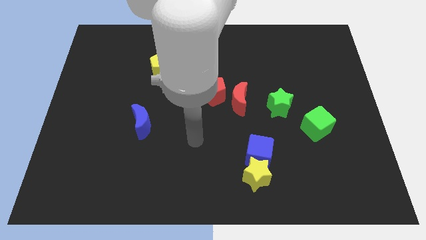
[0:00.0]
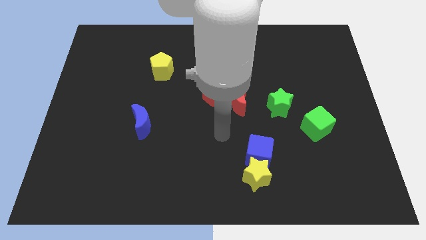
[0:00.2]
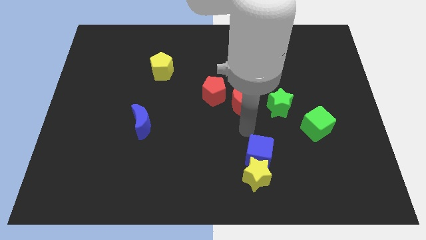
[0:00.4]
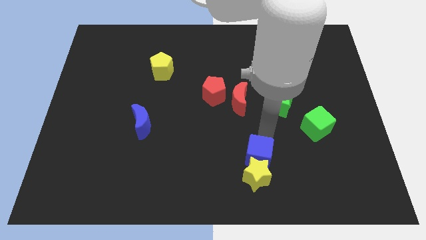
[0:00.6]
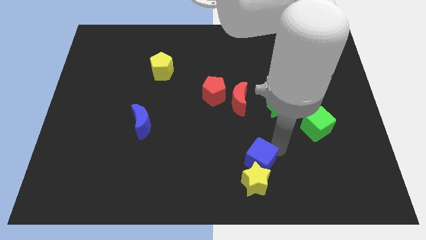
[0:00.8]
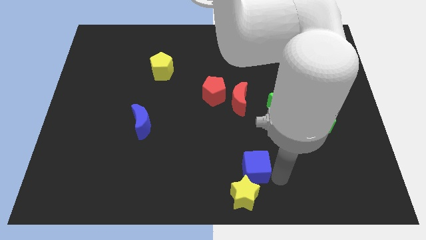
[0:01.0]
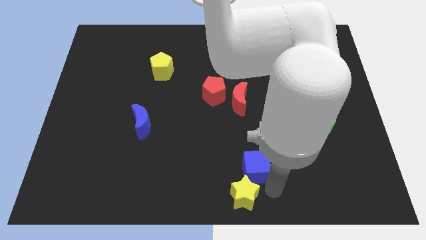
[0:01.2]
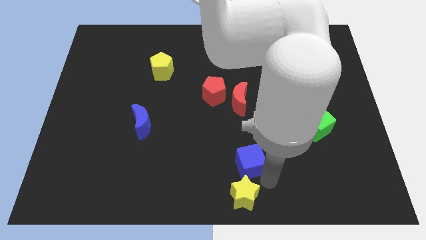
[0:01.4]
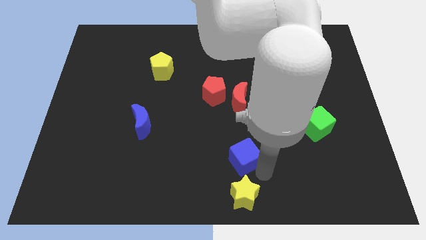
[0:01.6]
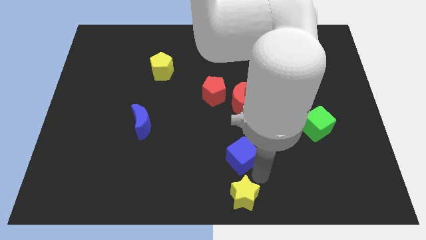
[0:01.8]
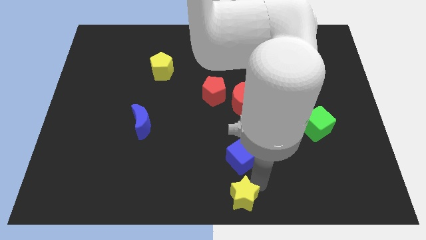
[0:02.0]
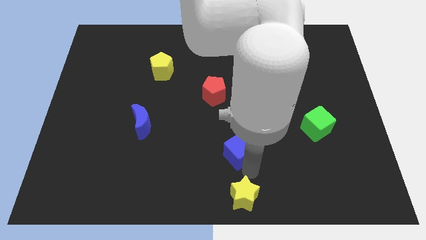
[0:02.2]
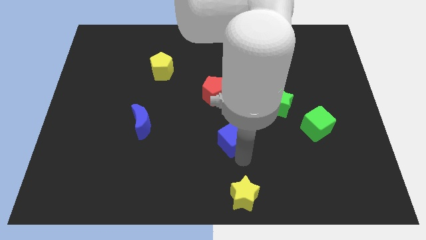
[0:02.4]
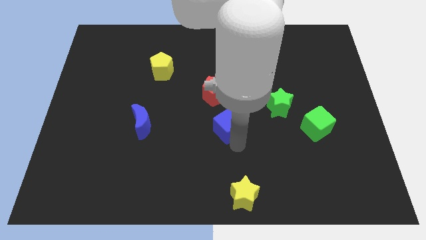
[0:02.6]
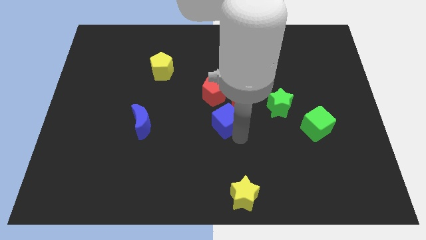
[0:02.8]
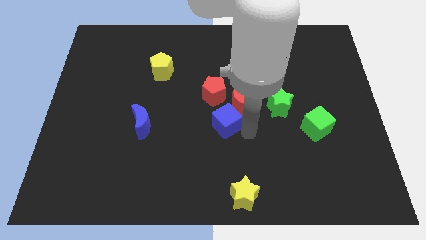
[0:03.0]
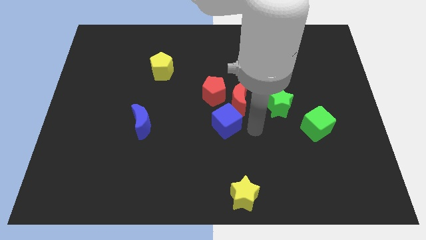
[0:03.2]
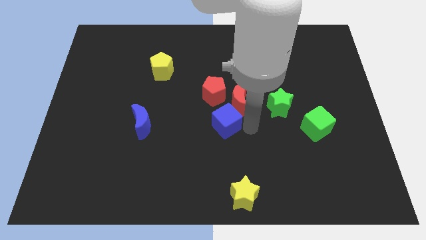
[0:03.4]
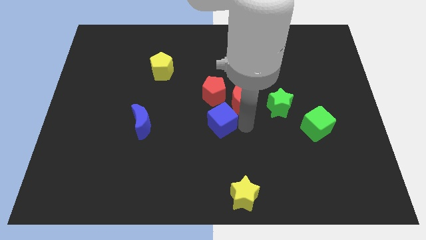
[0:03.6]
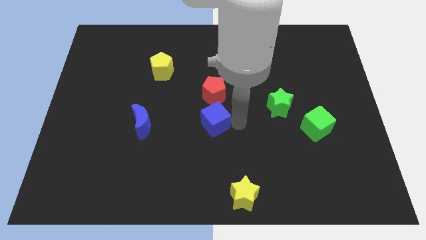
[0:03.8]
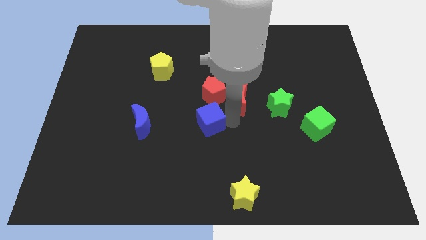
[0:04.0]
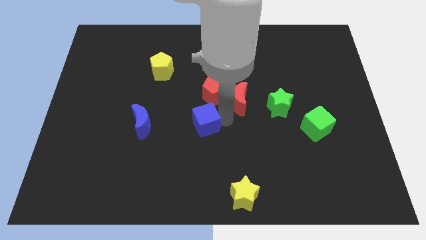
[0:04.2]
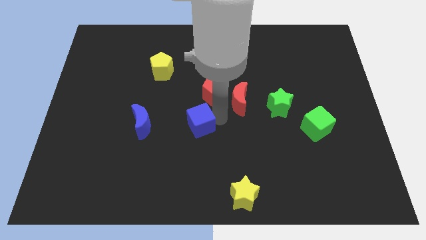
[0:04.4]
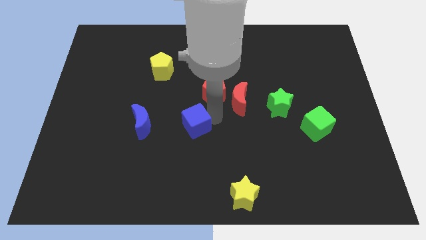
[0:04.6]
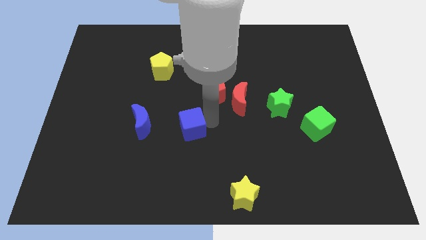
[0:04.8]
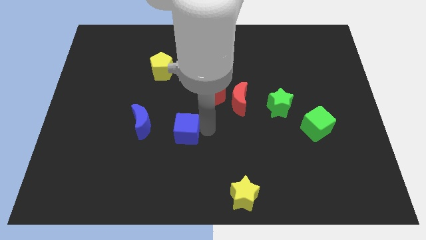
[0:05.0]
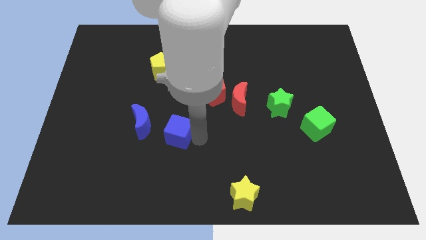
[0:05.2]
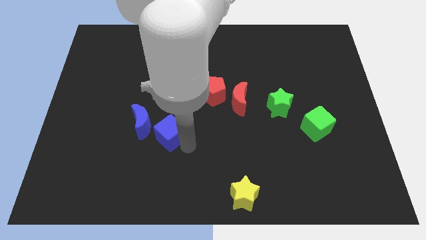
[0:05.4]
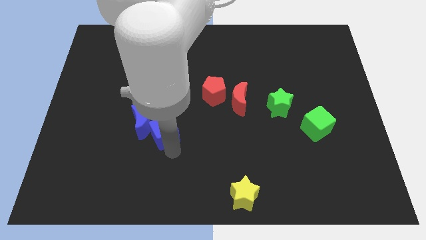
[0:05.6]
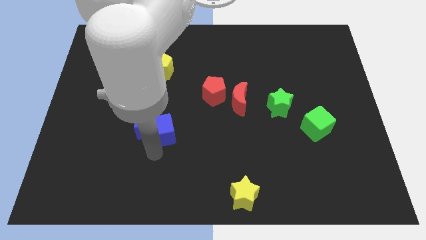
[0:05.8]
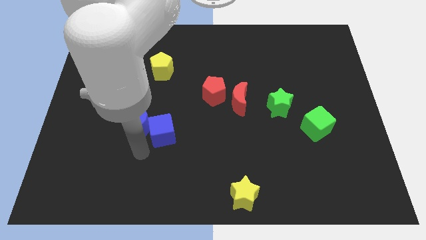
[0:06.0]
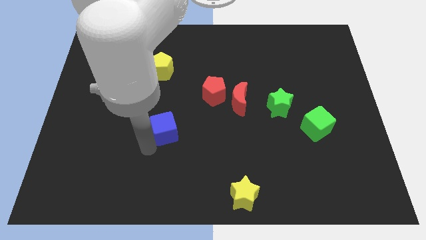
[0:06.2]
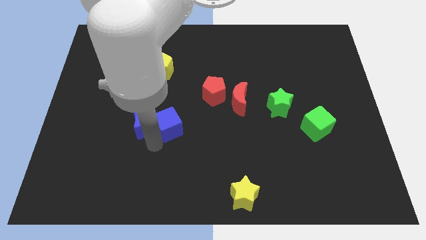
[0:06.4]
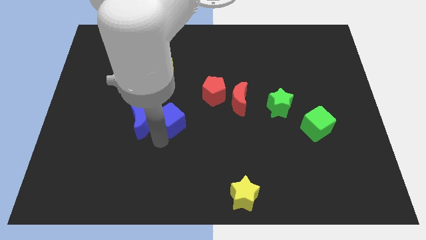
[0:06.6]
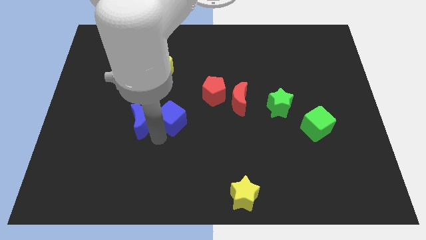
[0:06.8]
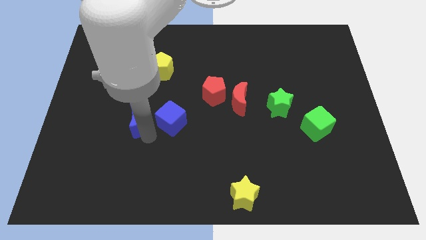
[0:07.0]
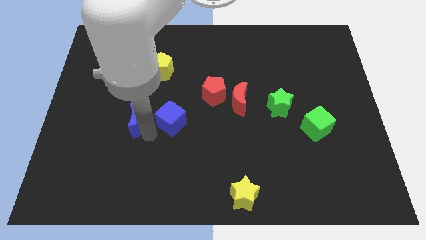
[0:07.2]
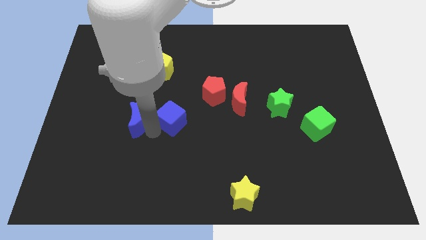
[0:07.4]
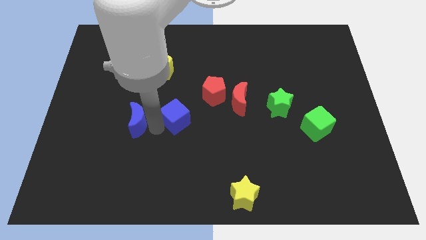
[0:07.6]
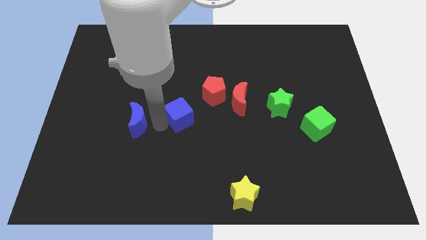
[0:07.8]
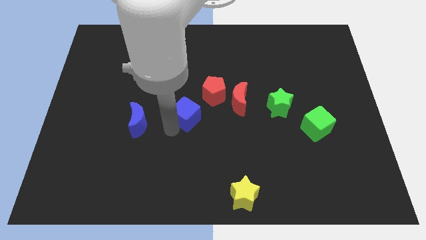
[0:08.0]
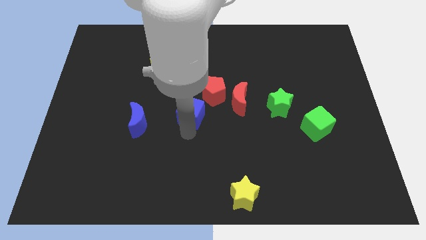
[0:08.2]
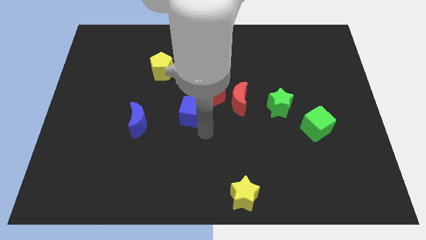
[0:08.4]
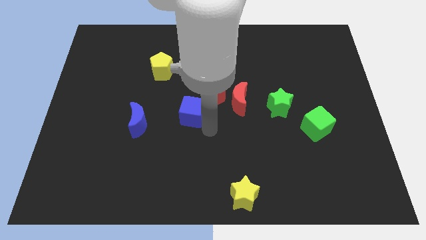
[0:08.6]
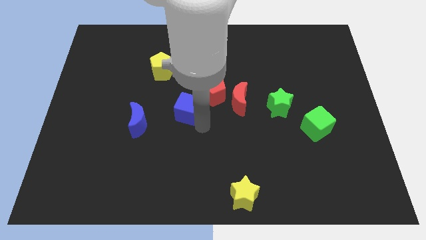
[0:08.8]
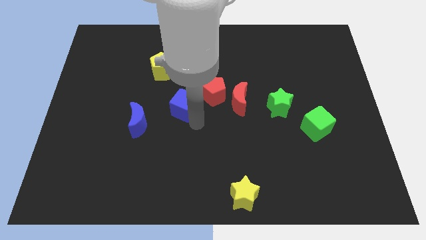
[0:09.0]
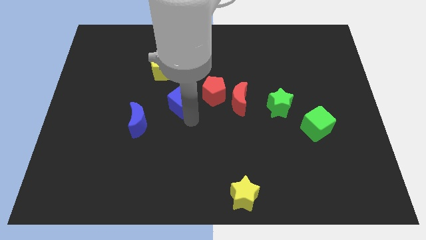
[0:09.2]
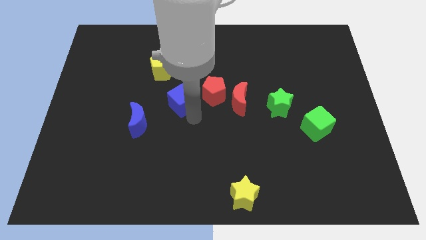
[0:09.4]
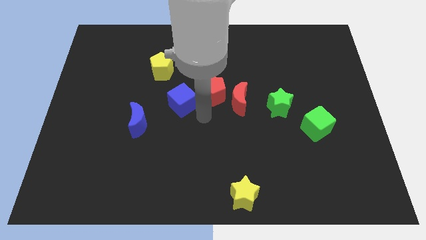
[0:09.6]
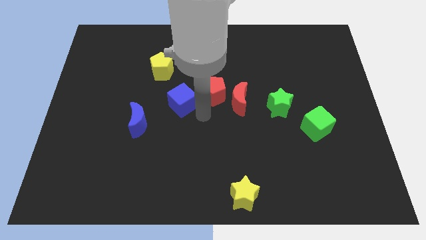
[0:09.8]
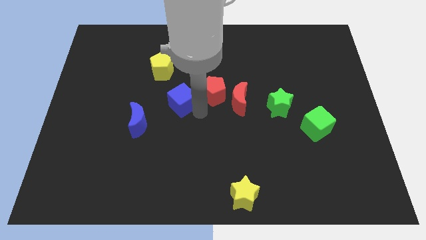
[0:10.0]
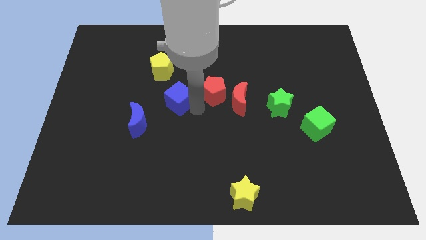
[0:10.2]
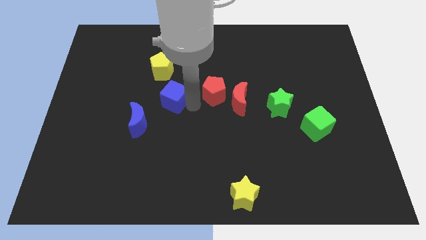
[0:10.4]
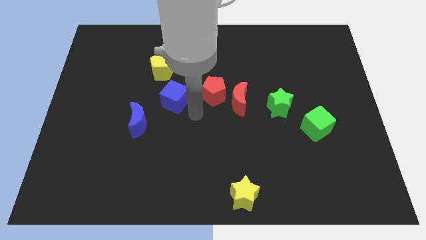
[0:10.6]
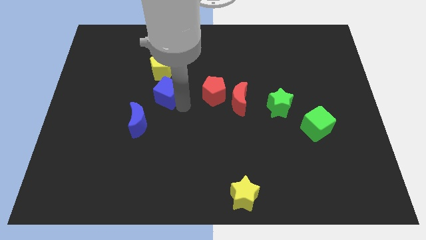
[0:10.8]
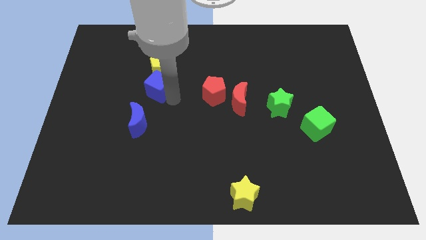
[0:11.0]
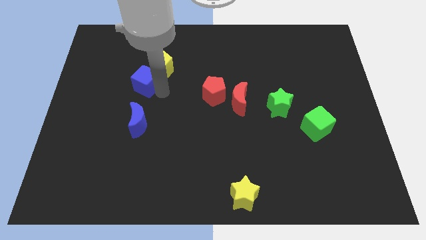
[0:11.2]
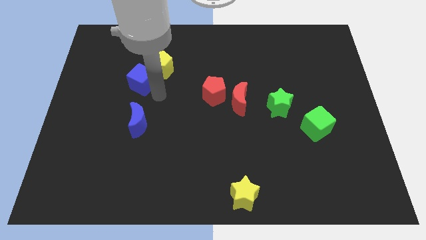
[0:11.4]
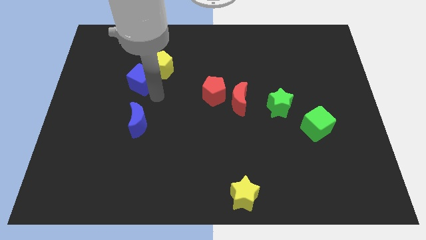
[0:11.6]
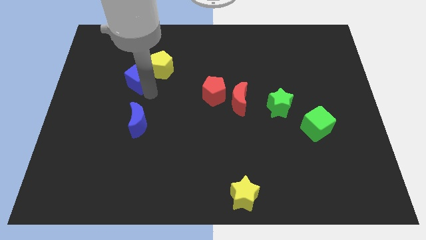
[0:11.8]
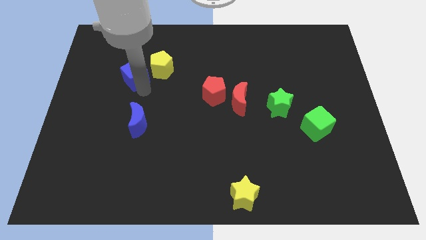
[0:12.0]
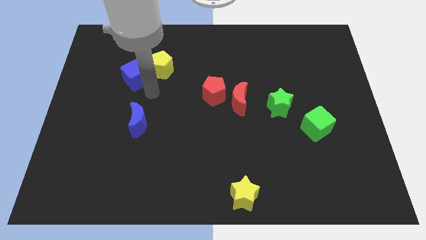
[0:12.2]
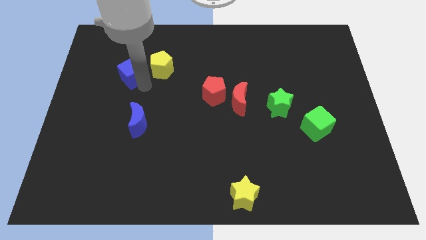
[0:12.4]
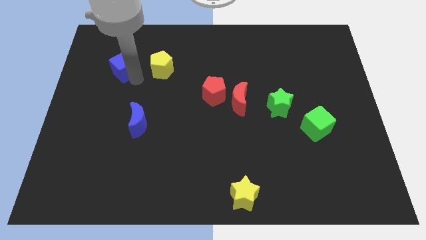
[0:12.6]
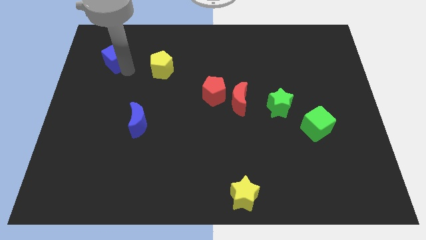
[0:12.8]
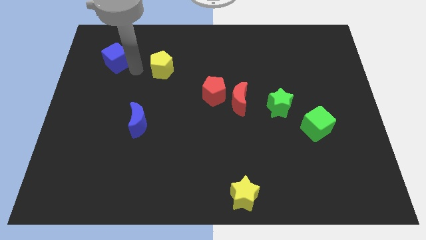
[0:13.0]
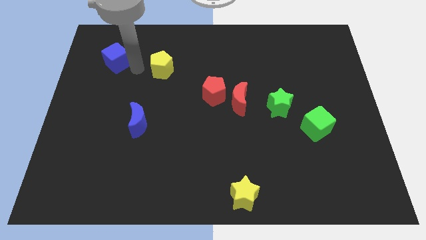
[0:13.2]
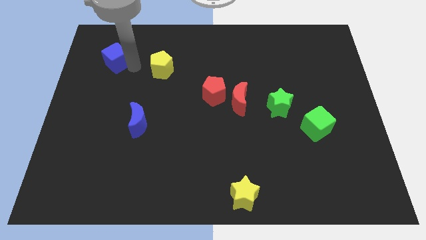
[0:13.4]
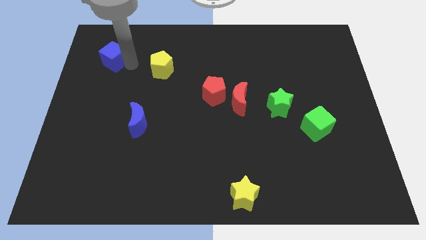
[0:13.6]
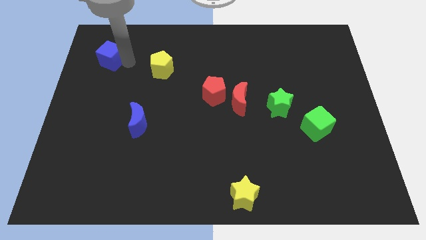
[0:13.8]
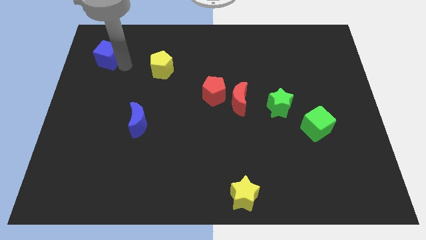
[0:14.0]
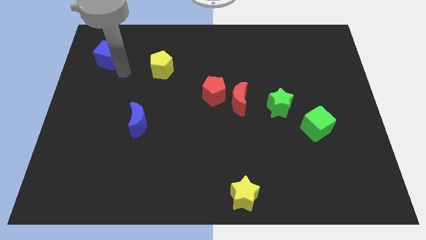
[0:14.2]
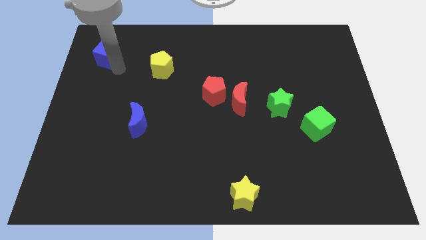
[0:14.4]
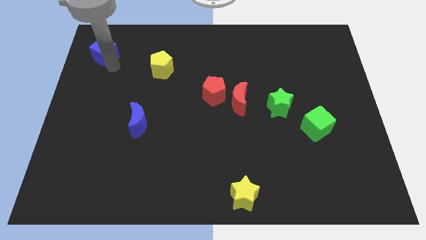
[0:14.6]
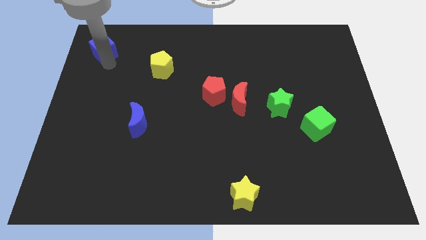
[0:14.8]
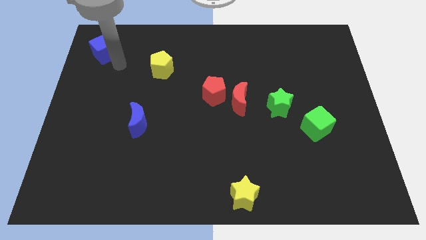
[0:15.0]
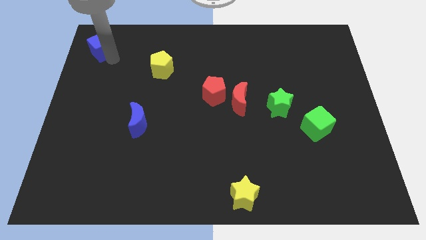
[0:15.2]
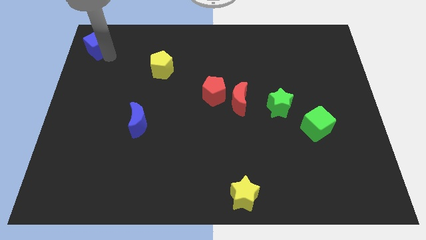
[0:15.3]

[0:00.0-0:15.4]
push the blue cube to the upper left corner
